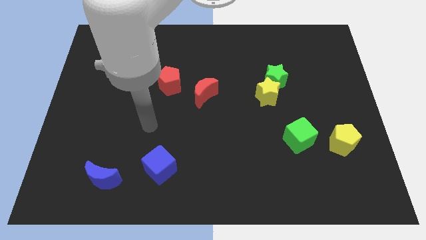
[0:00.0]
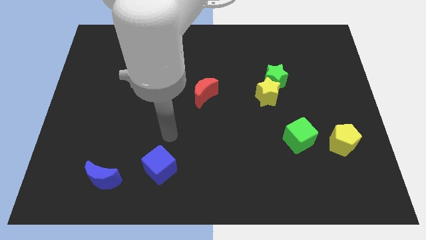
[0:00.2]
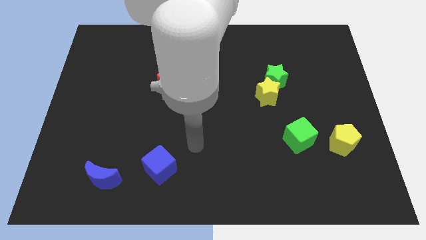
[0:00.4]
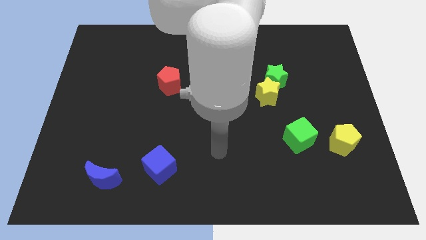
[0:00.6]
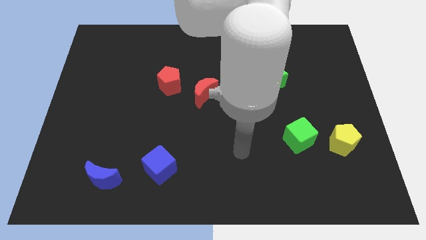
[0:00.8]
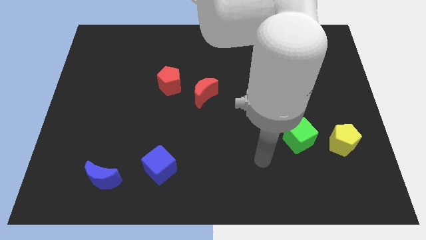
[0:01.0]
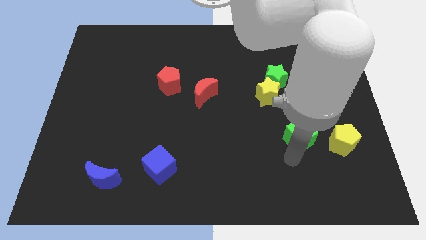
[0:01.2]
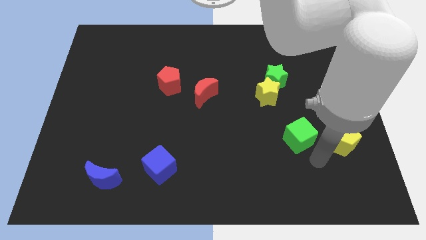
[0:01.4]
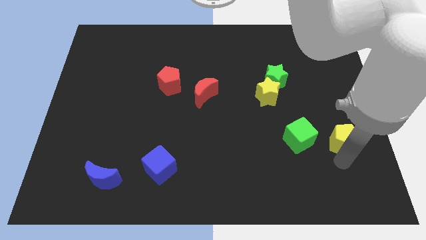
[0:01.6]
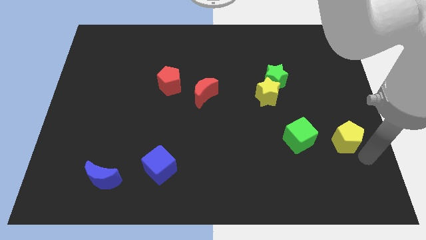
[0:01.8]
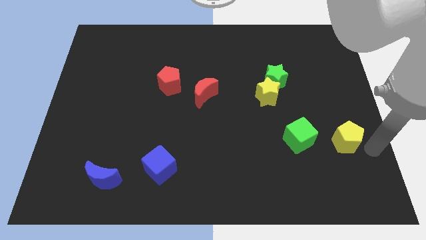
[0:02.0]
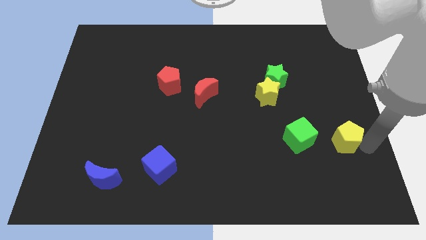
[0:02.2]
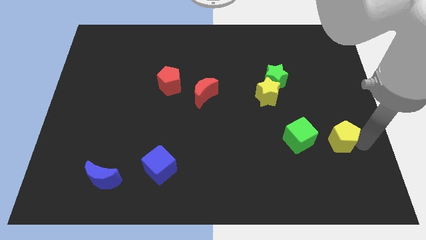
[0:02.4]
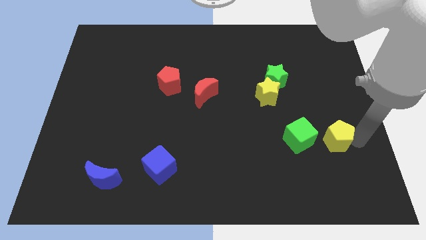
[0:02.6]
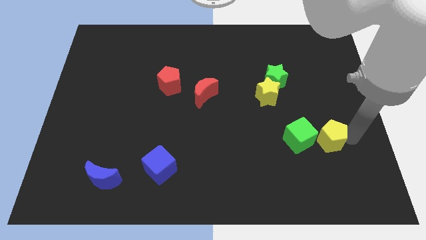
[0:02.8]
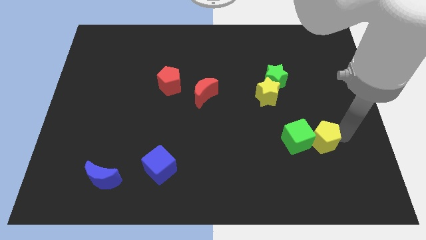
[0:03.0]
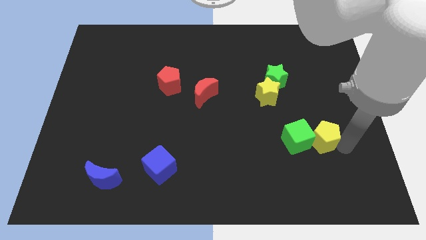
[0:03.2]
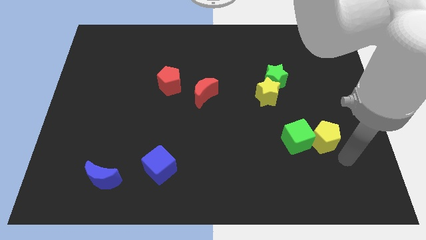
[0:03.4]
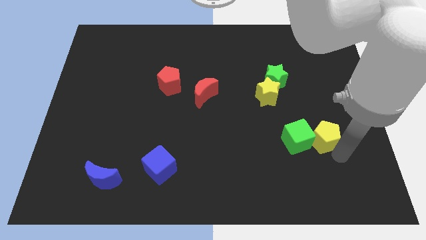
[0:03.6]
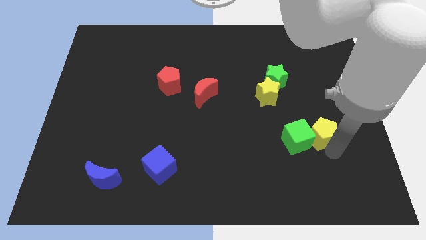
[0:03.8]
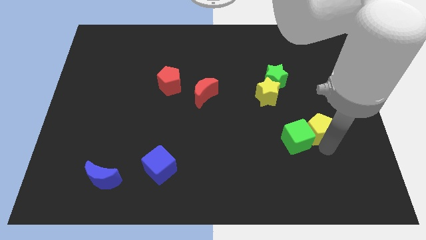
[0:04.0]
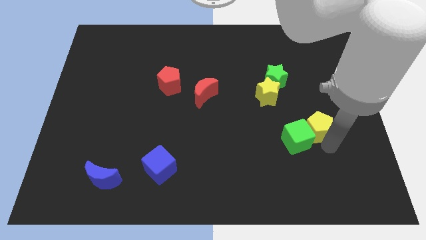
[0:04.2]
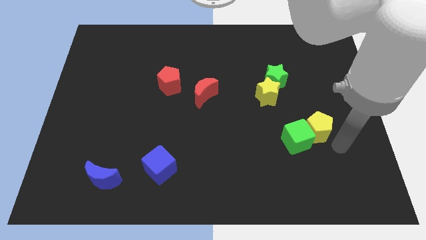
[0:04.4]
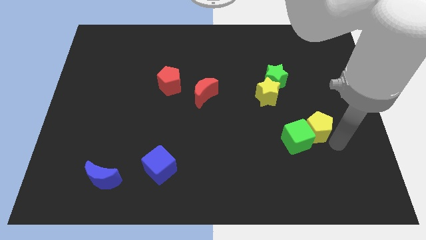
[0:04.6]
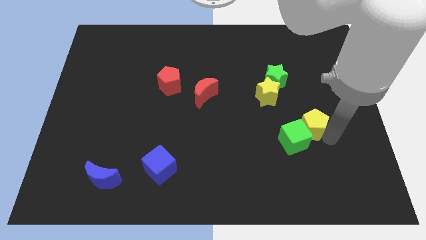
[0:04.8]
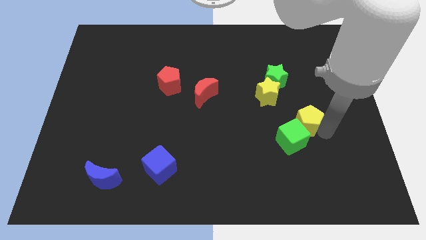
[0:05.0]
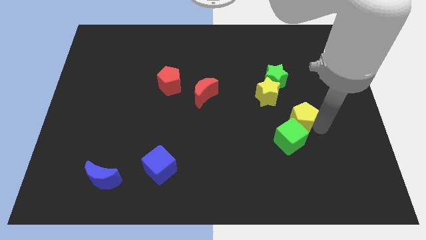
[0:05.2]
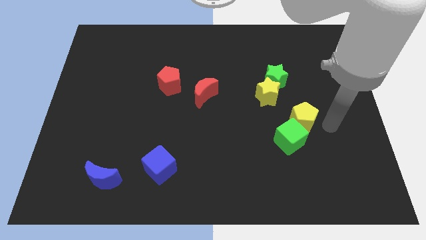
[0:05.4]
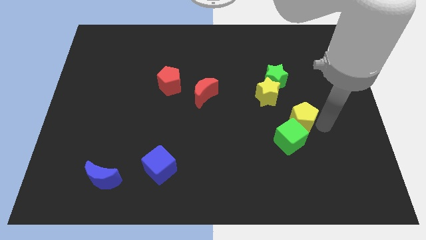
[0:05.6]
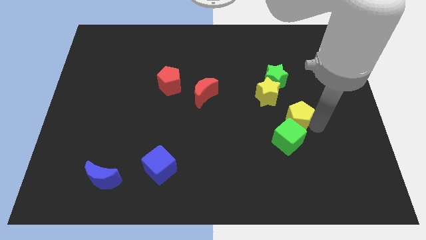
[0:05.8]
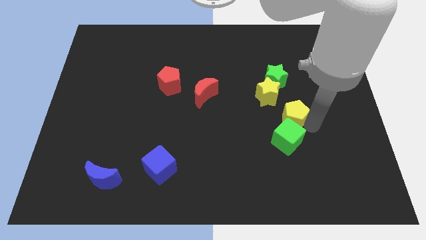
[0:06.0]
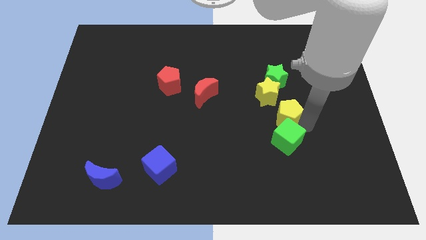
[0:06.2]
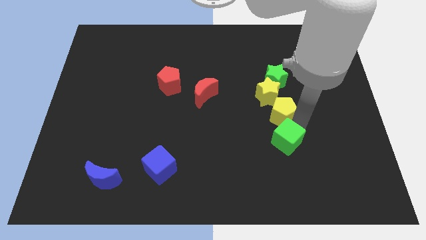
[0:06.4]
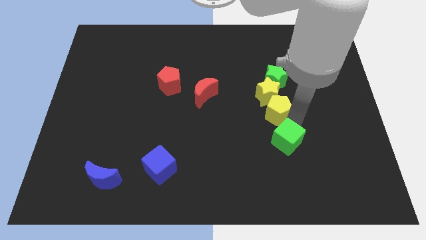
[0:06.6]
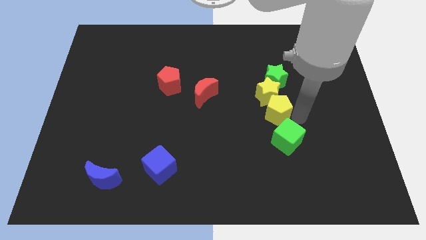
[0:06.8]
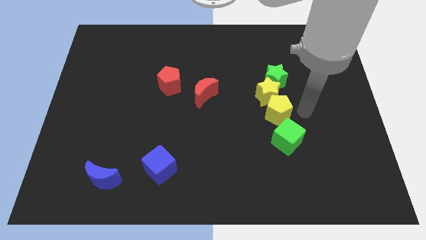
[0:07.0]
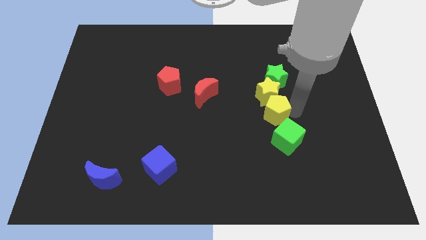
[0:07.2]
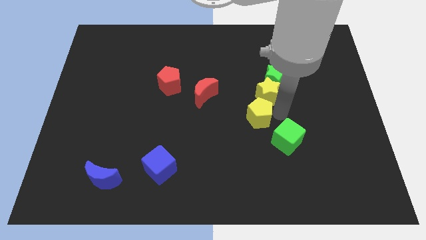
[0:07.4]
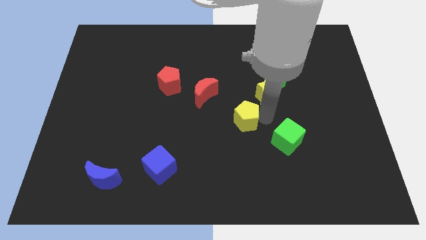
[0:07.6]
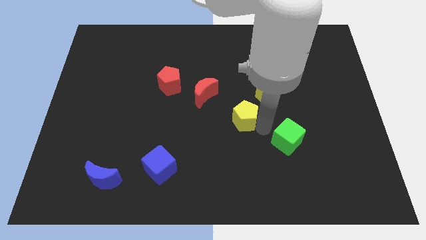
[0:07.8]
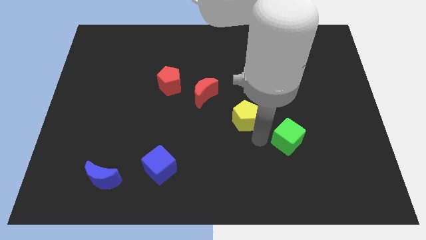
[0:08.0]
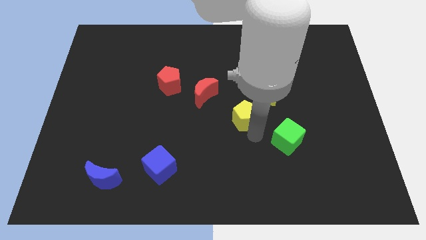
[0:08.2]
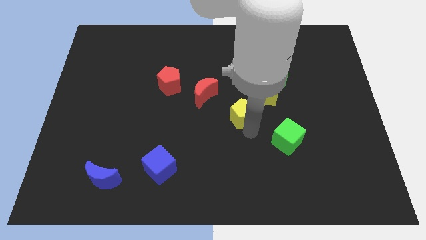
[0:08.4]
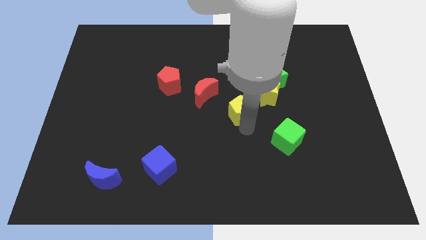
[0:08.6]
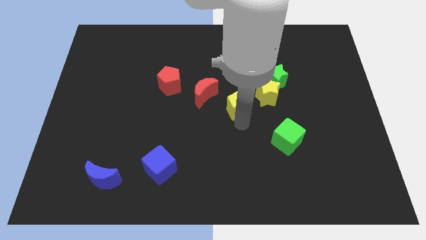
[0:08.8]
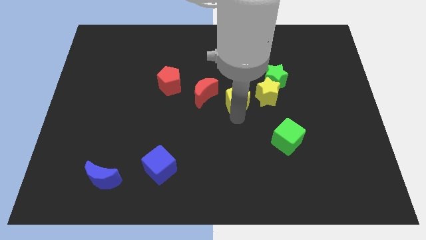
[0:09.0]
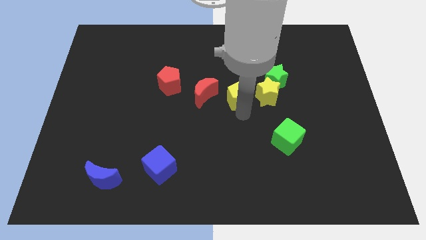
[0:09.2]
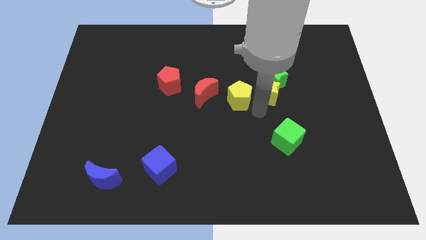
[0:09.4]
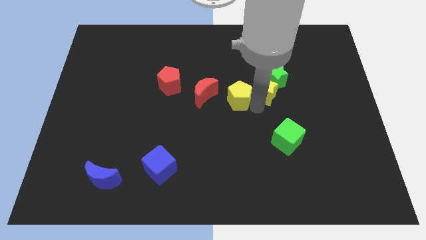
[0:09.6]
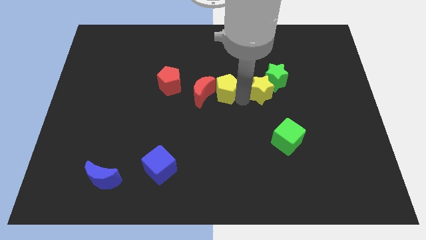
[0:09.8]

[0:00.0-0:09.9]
put the yellow pentagon to the right side of the red pentagon

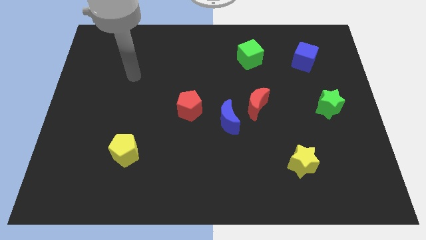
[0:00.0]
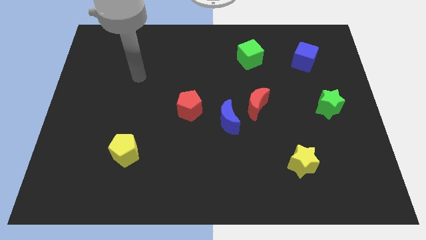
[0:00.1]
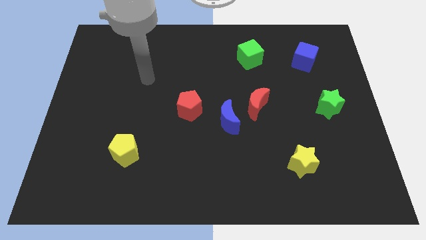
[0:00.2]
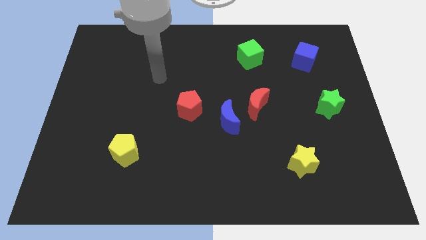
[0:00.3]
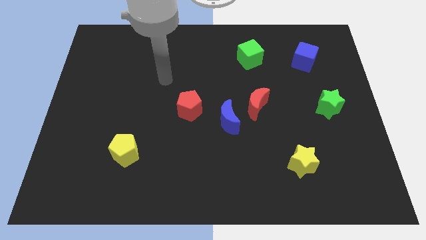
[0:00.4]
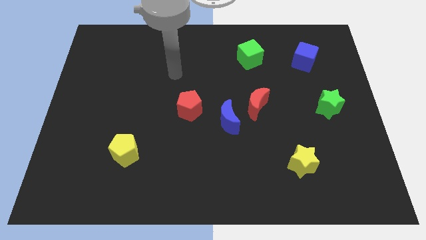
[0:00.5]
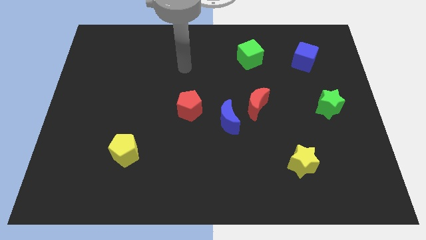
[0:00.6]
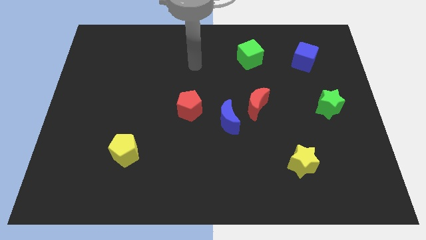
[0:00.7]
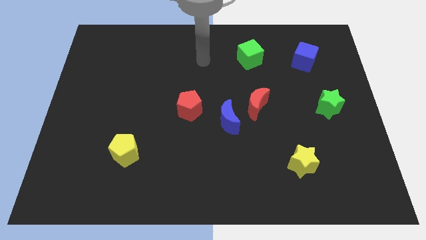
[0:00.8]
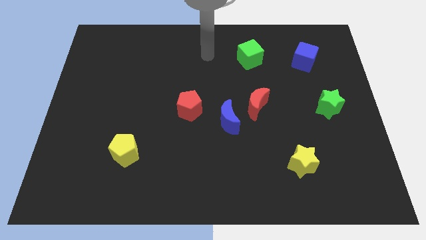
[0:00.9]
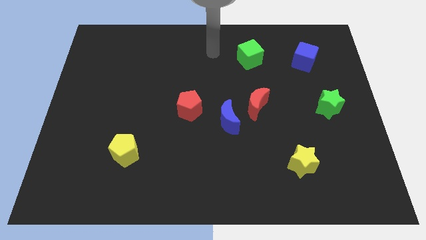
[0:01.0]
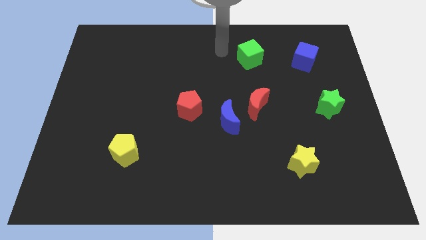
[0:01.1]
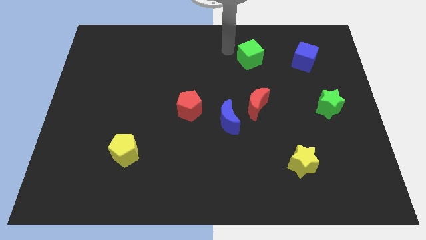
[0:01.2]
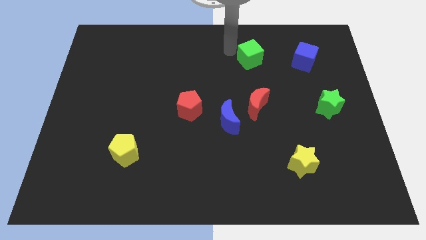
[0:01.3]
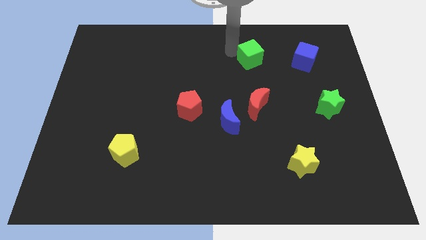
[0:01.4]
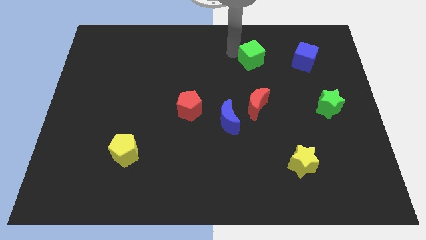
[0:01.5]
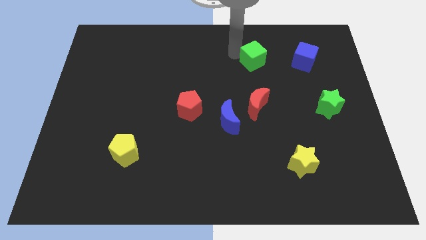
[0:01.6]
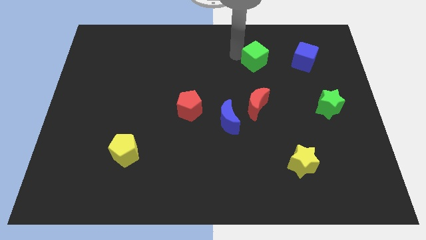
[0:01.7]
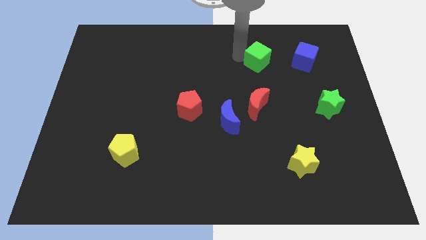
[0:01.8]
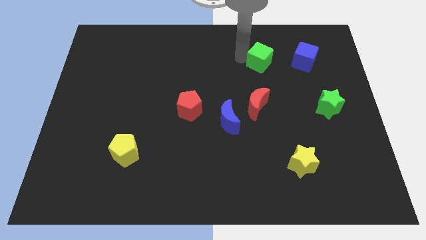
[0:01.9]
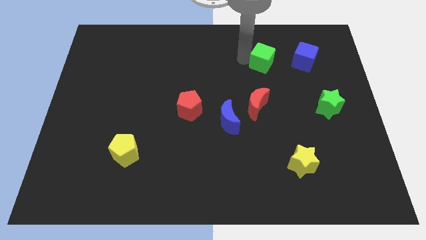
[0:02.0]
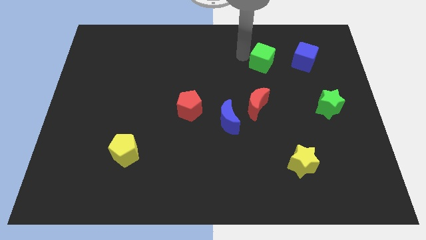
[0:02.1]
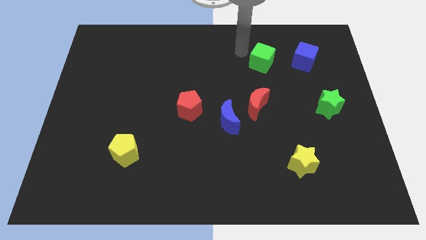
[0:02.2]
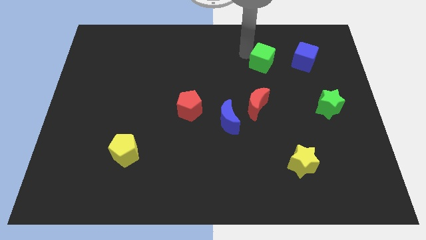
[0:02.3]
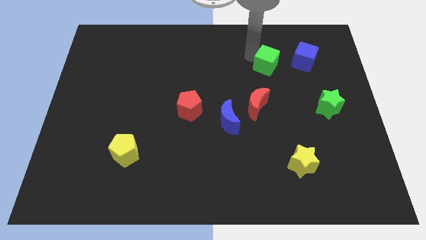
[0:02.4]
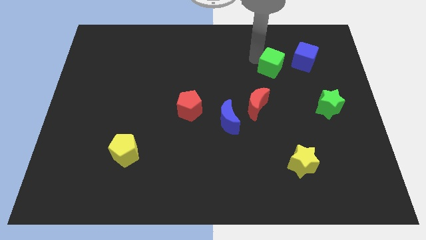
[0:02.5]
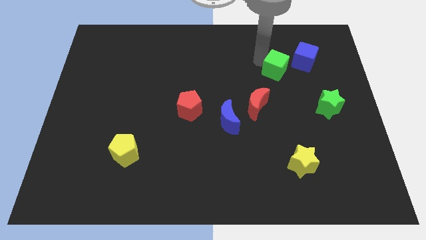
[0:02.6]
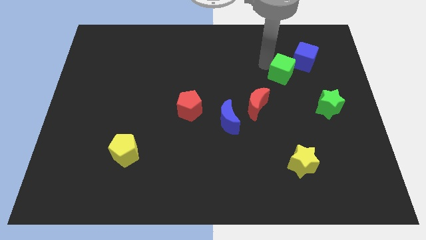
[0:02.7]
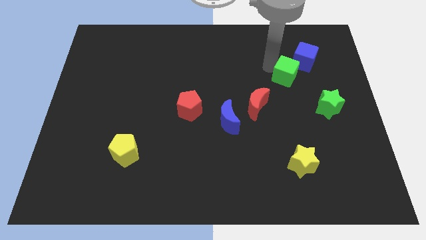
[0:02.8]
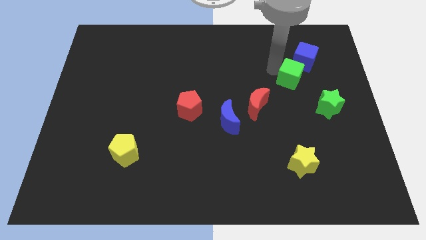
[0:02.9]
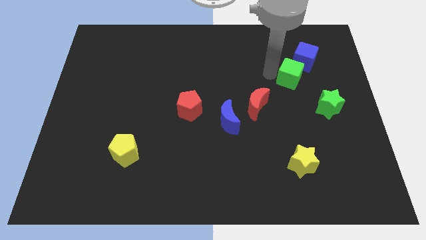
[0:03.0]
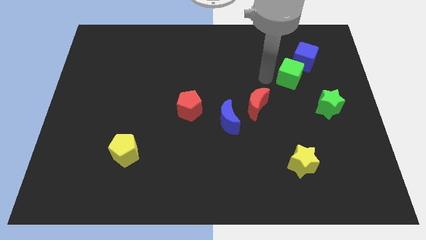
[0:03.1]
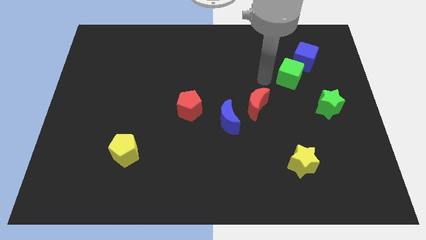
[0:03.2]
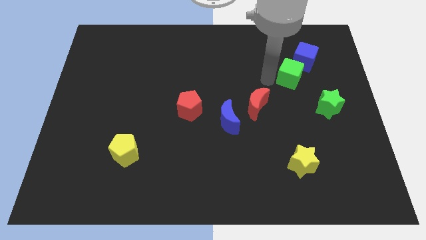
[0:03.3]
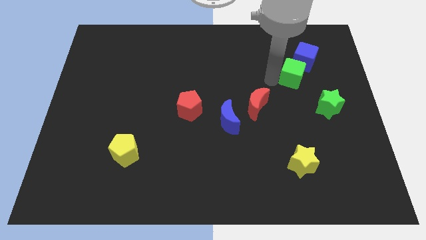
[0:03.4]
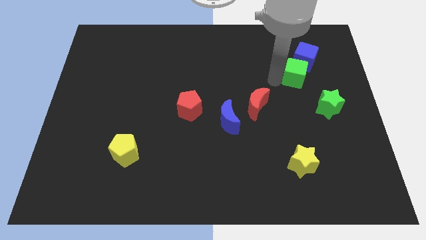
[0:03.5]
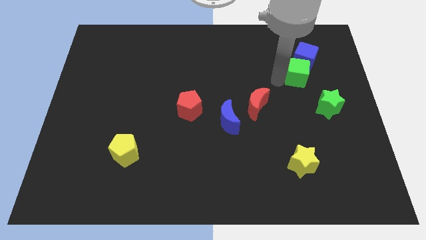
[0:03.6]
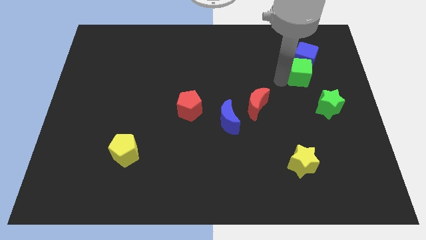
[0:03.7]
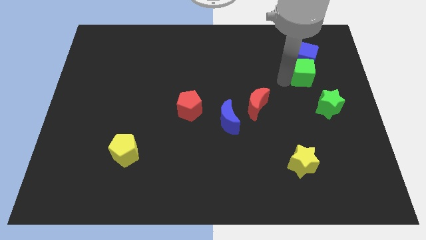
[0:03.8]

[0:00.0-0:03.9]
put the green cube to the top of the green star
